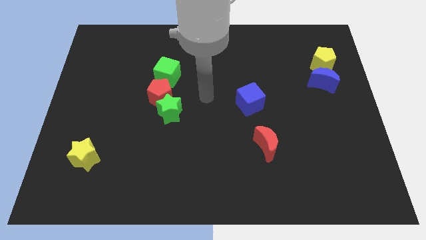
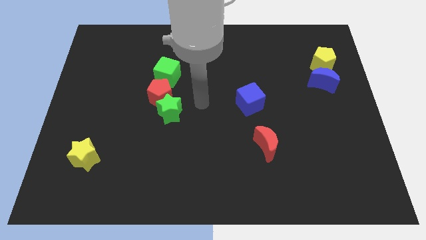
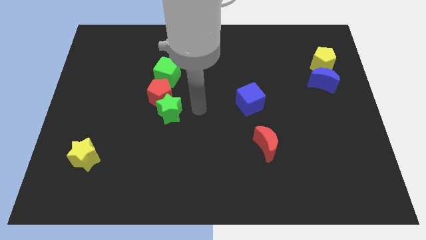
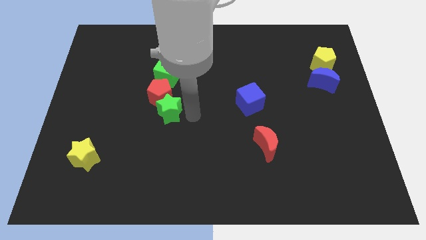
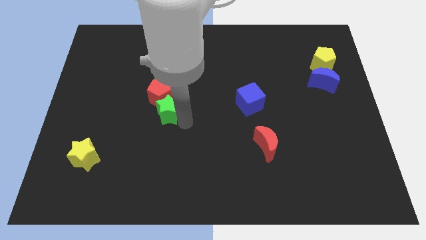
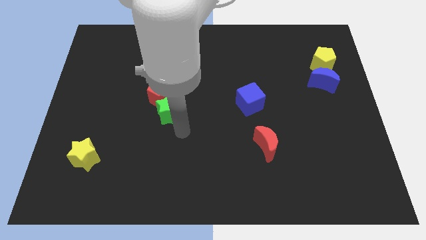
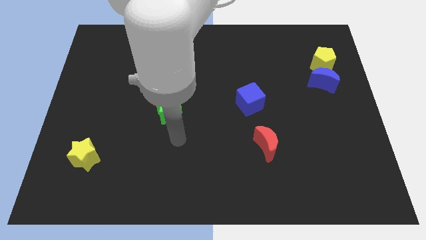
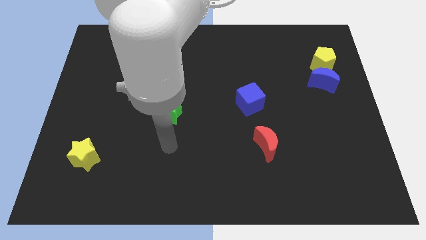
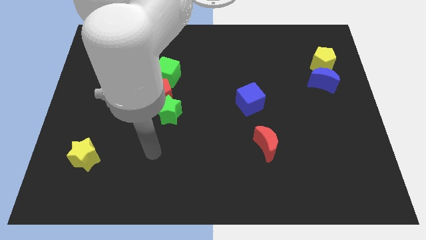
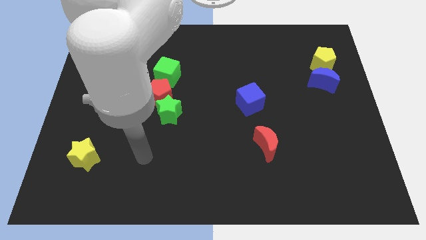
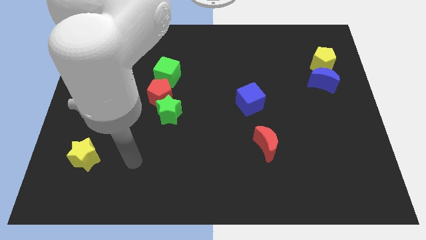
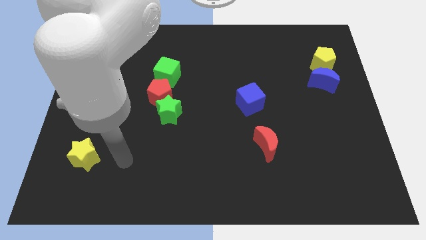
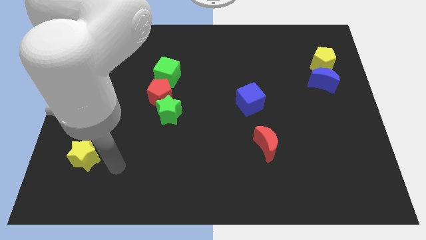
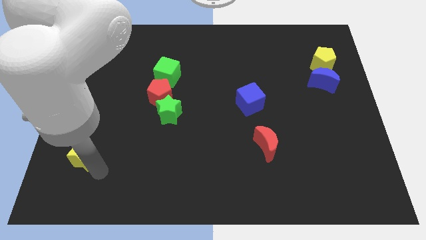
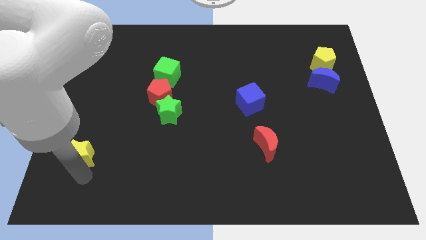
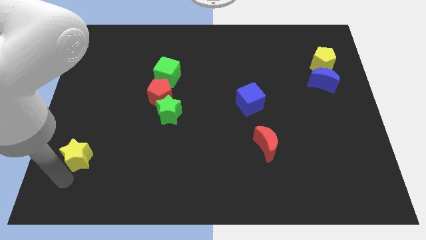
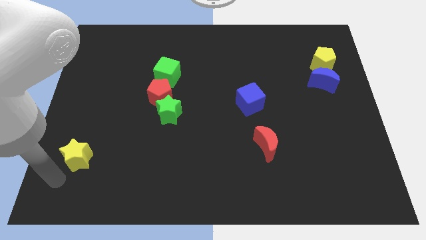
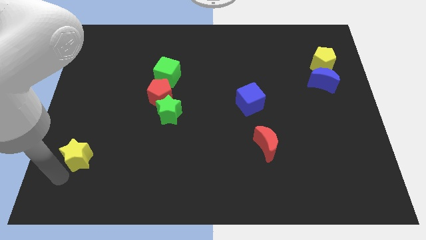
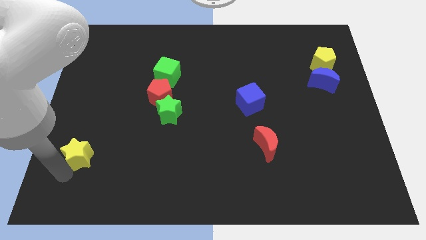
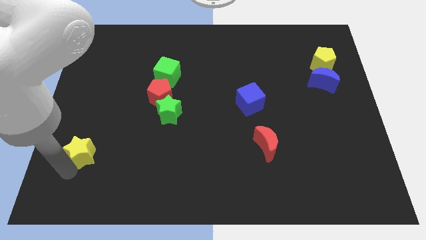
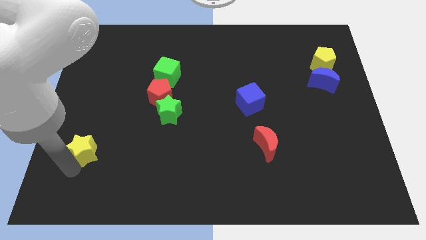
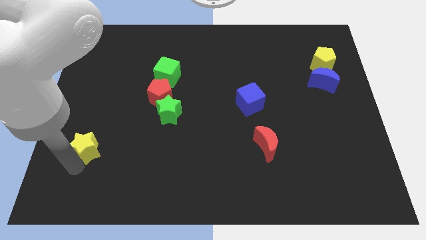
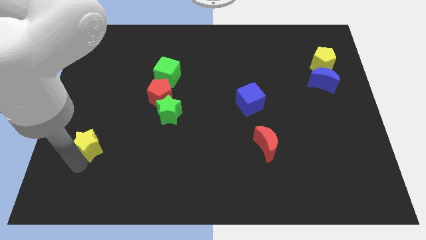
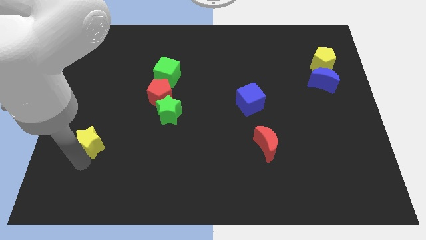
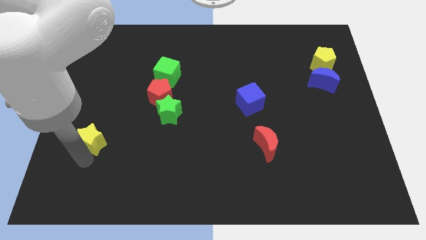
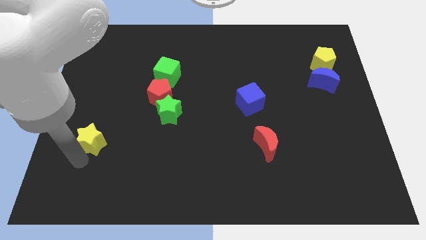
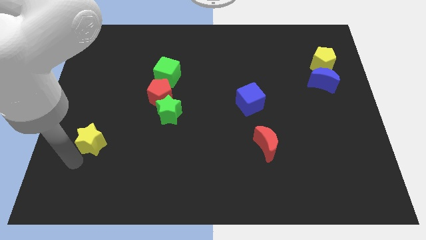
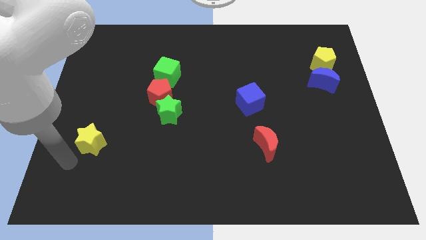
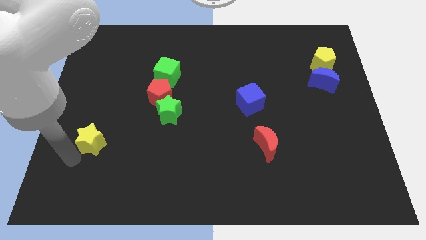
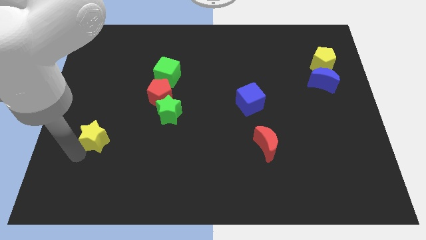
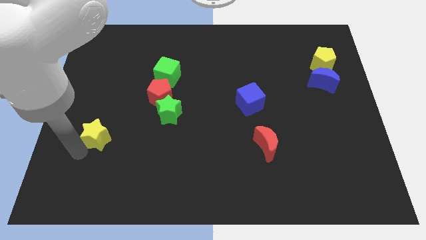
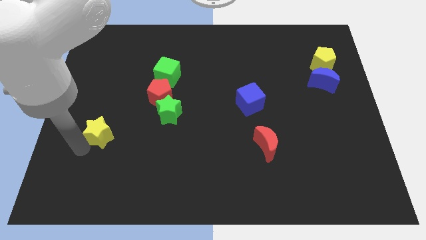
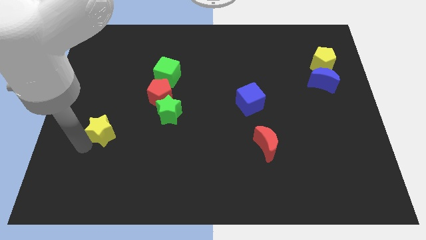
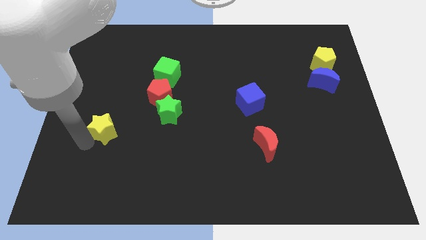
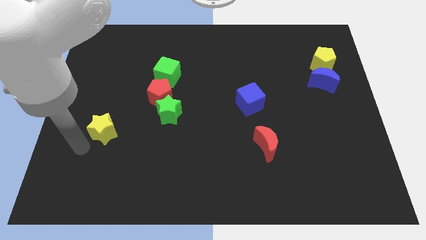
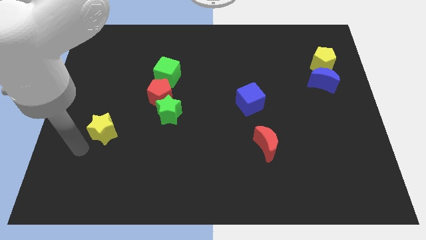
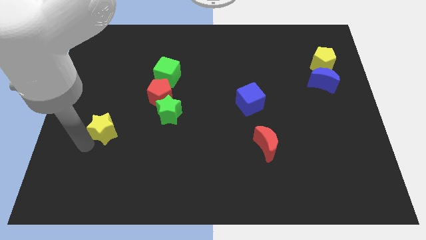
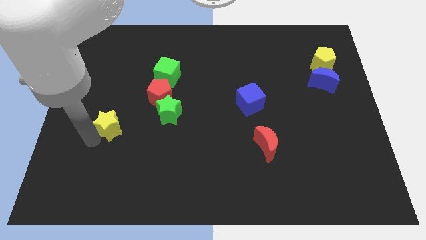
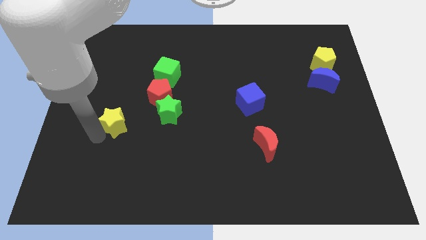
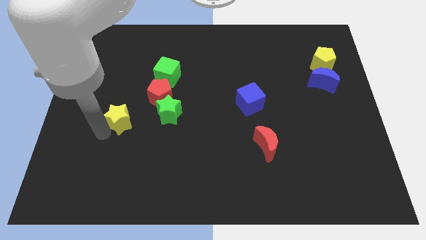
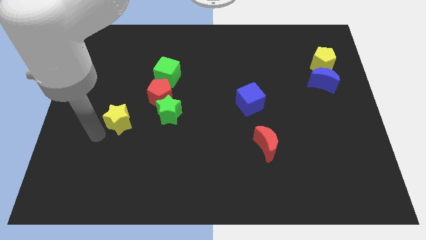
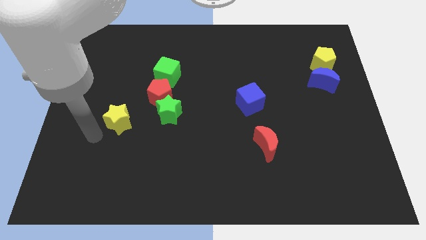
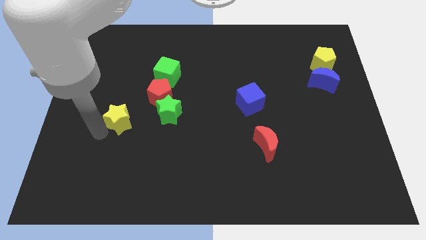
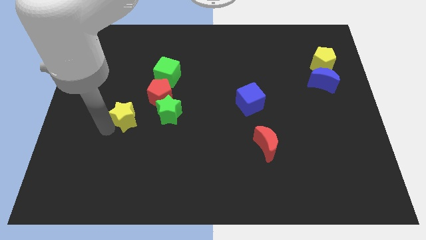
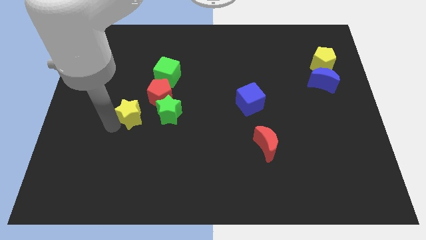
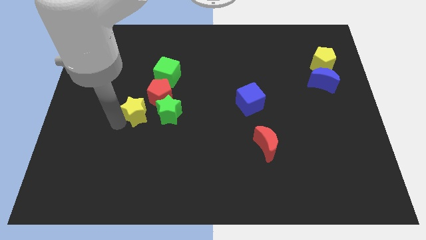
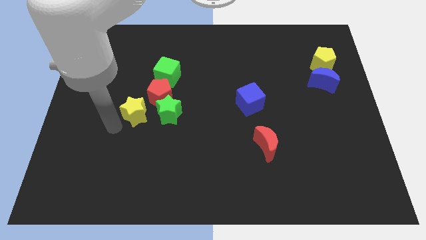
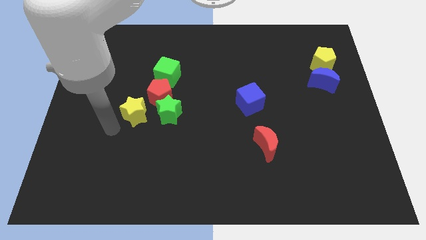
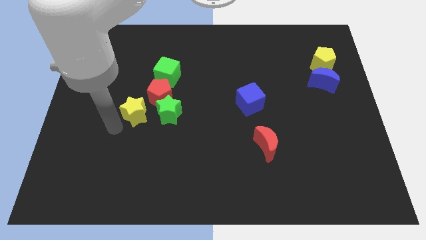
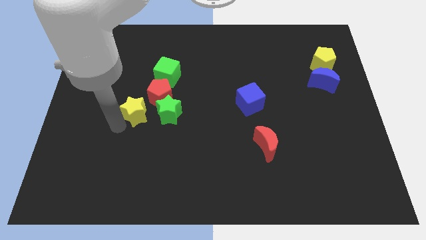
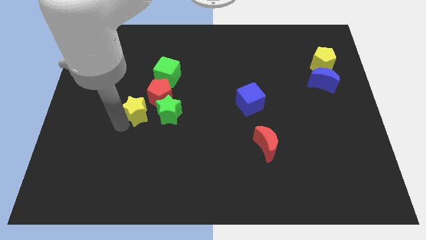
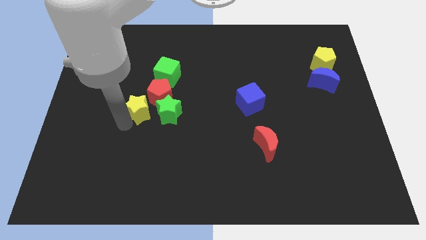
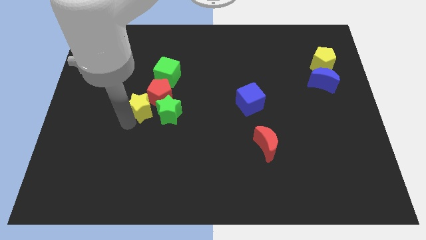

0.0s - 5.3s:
move the yellow star close to the red pentagon

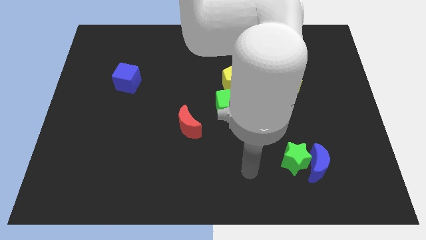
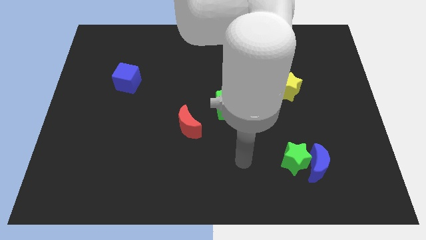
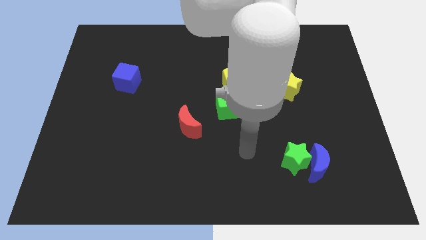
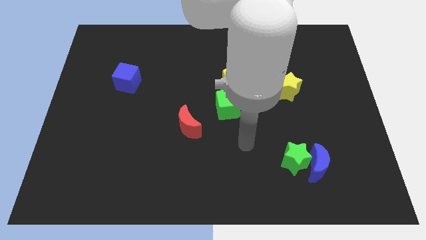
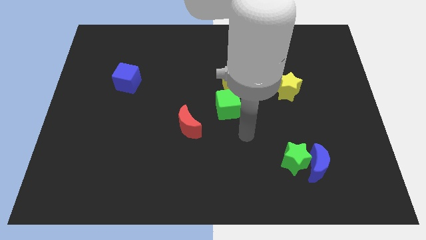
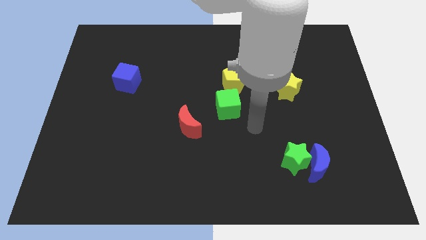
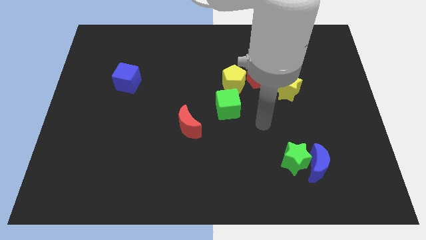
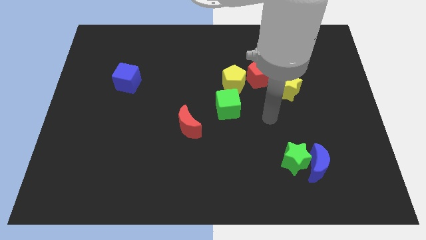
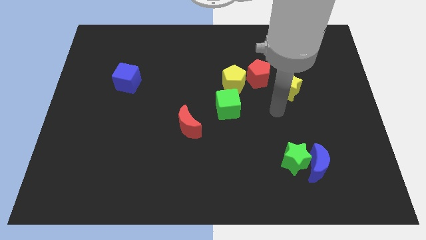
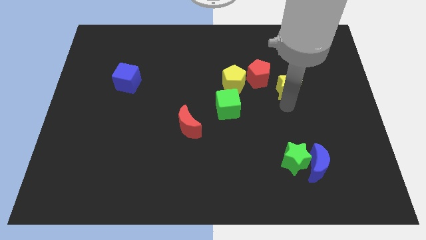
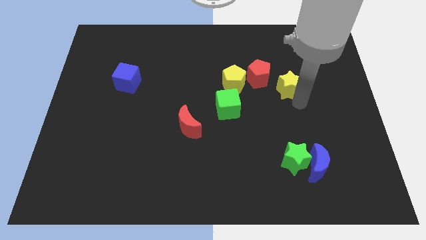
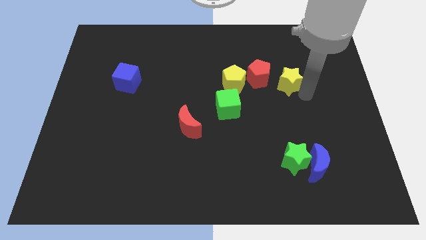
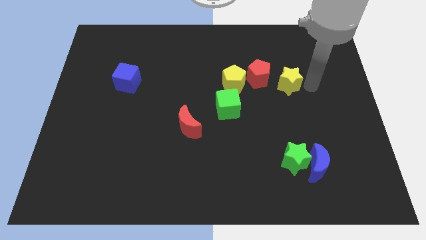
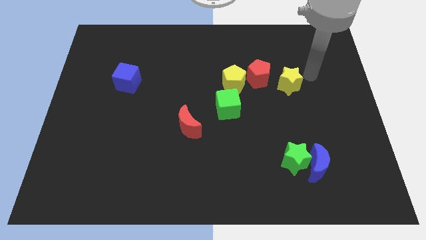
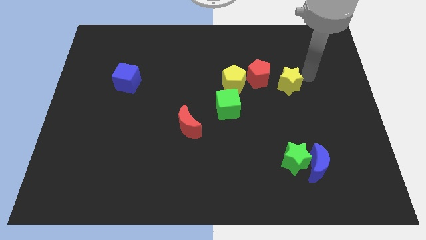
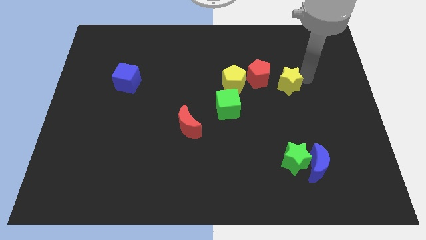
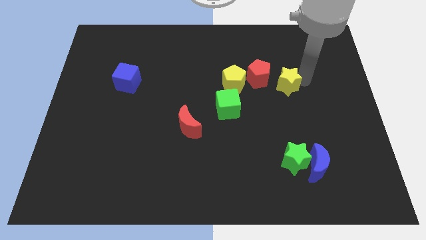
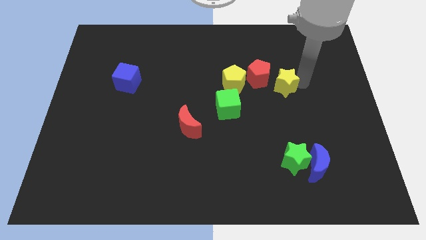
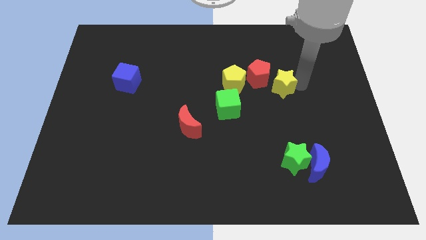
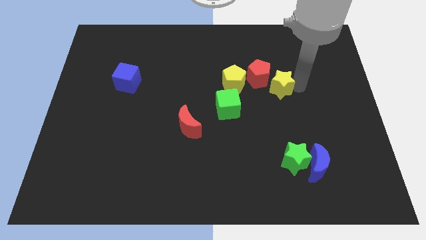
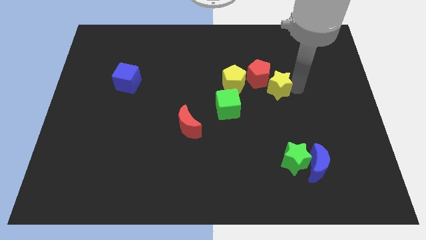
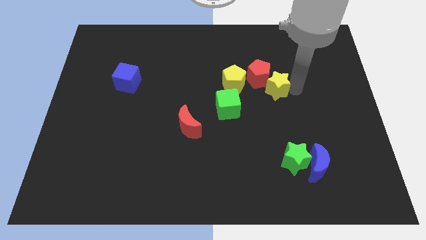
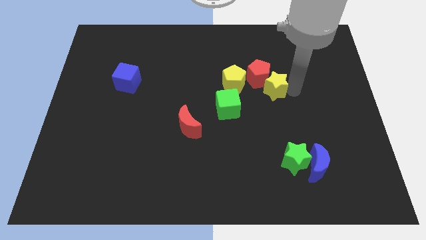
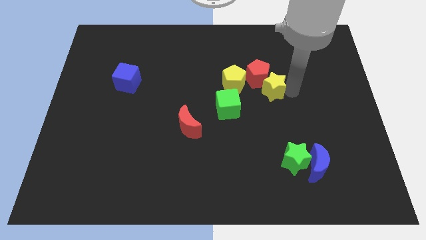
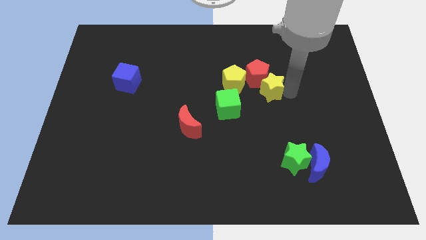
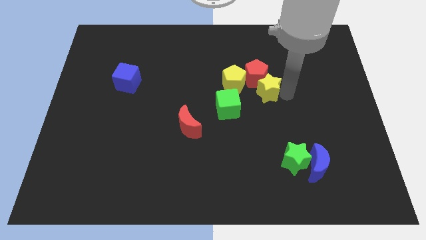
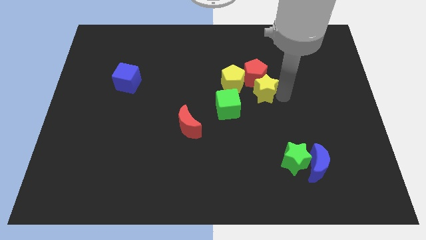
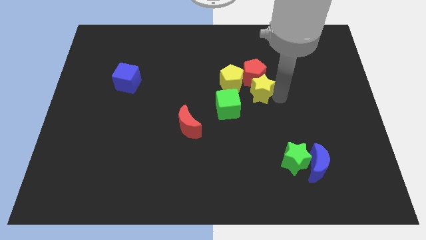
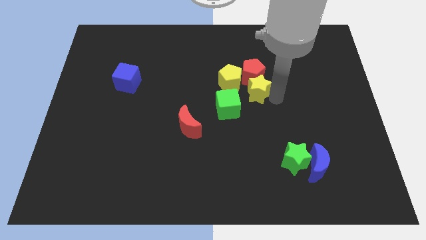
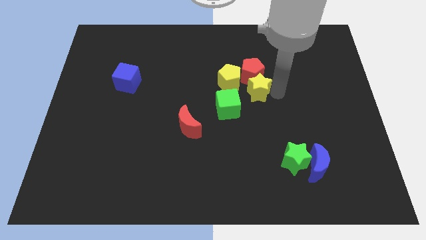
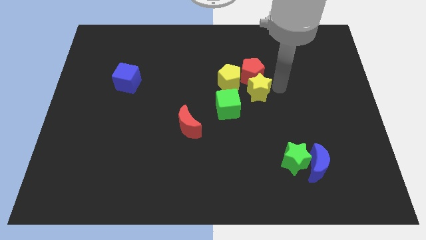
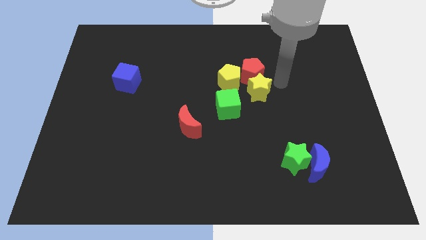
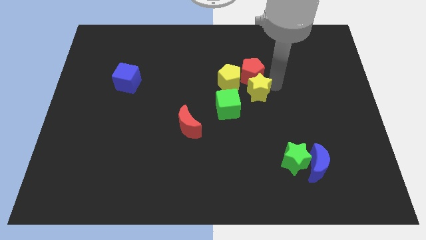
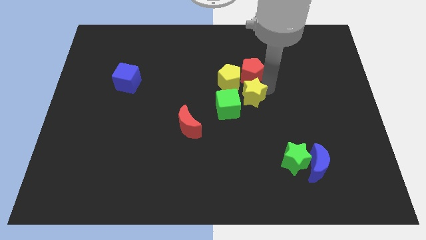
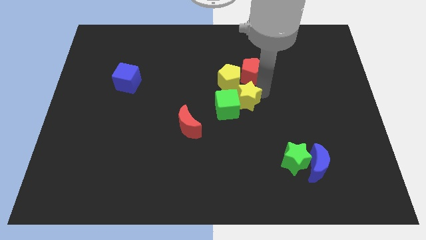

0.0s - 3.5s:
move the yellow star towards the green cube
